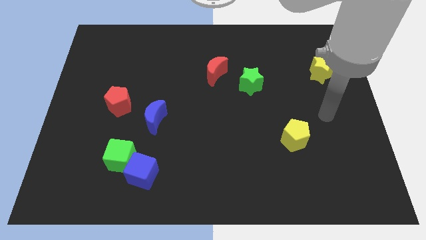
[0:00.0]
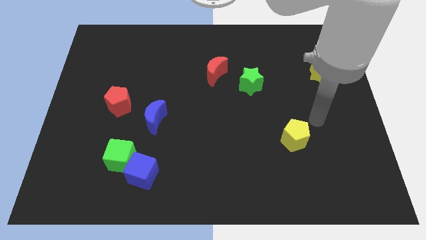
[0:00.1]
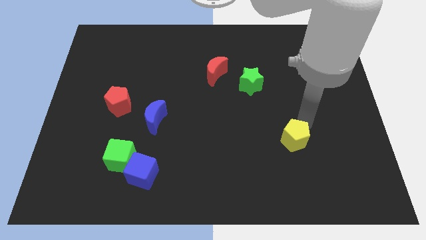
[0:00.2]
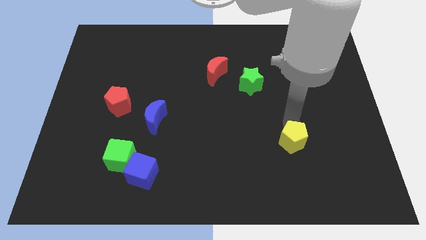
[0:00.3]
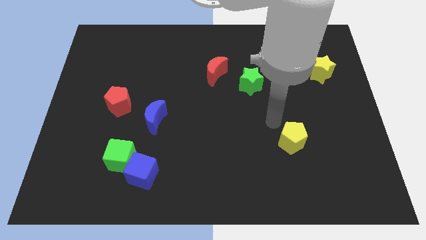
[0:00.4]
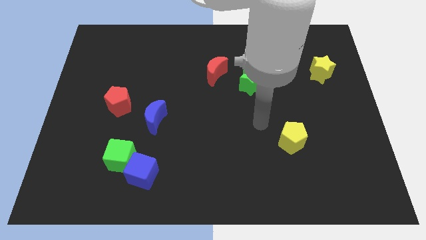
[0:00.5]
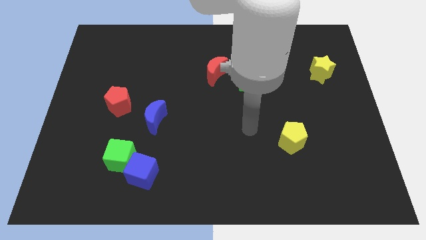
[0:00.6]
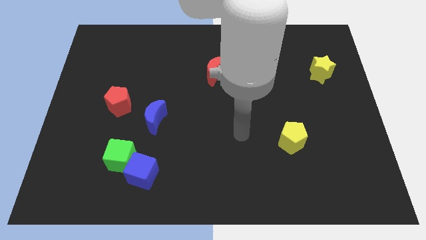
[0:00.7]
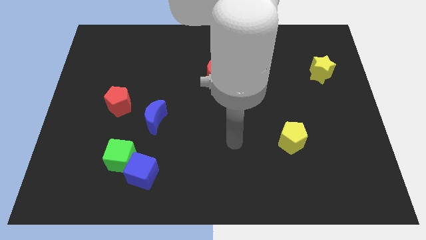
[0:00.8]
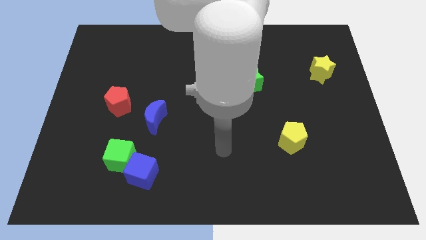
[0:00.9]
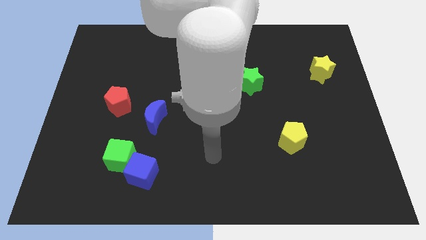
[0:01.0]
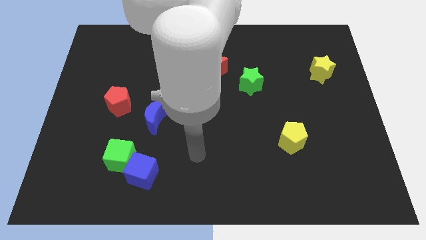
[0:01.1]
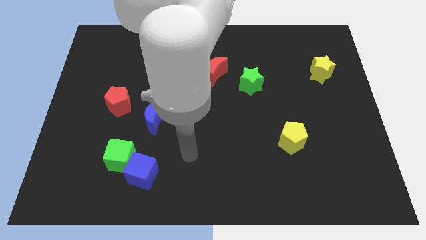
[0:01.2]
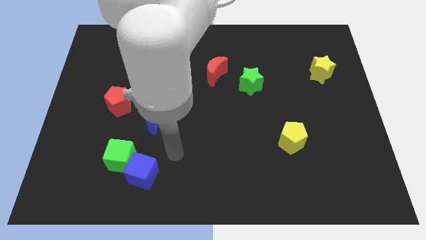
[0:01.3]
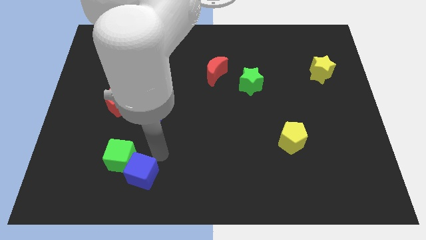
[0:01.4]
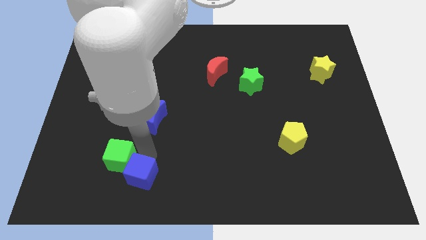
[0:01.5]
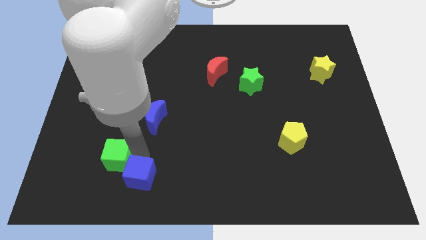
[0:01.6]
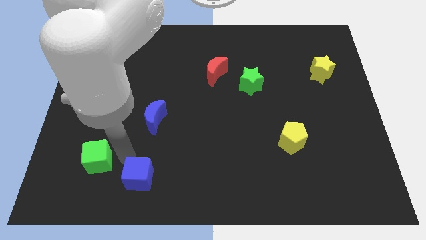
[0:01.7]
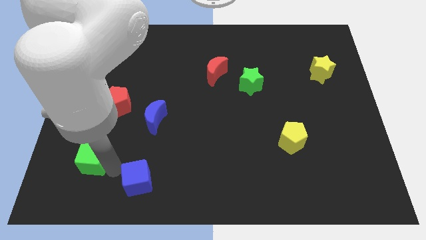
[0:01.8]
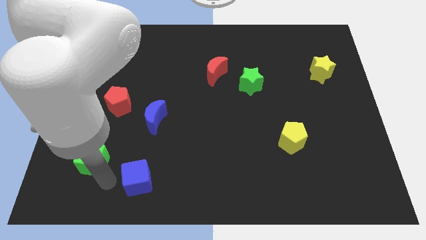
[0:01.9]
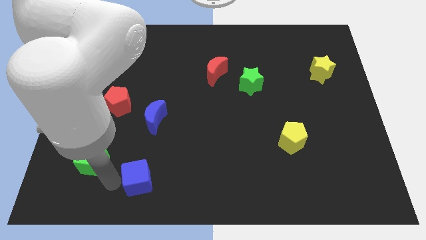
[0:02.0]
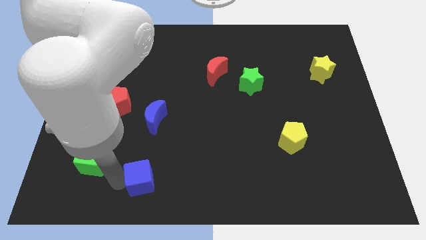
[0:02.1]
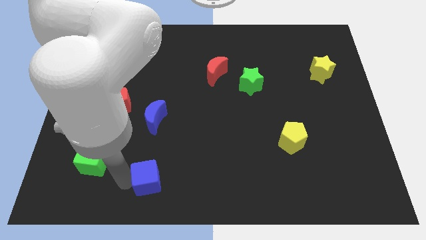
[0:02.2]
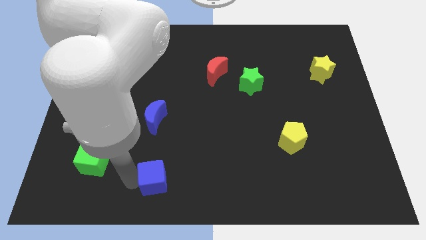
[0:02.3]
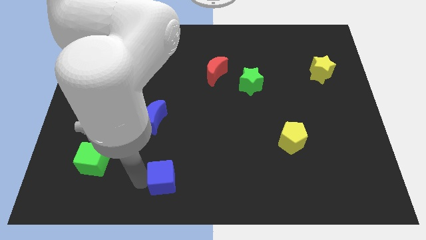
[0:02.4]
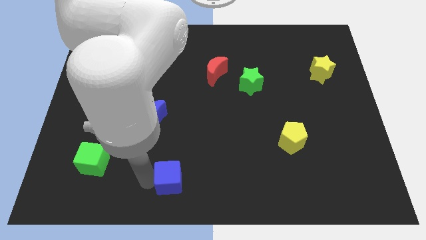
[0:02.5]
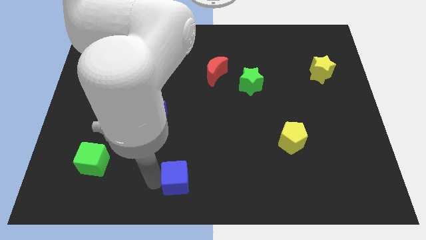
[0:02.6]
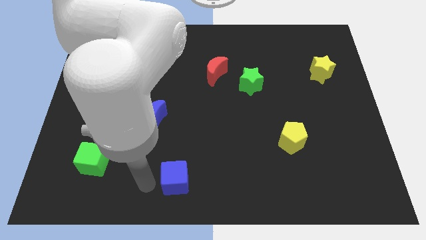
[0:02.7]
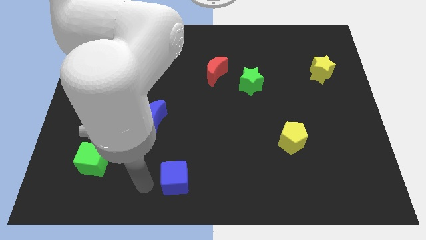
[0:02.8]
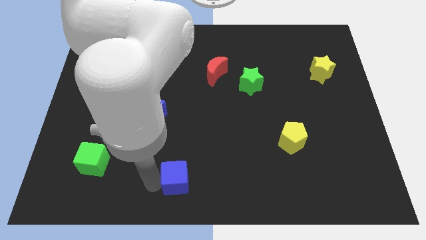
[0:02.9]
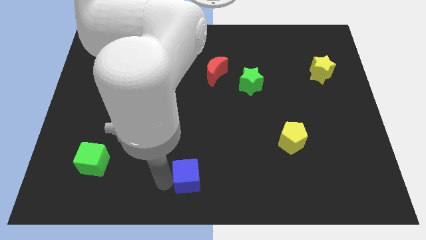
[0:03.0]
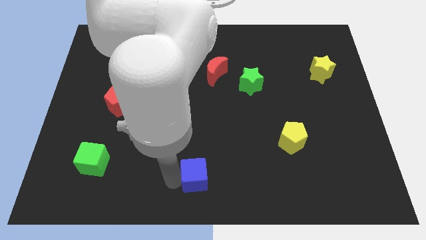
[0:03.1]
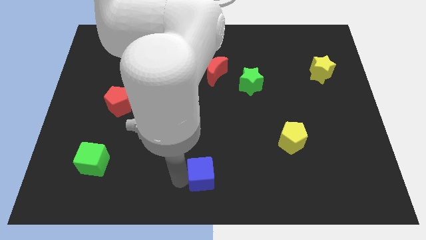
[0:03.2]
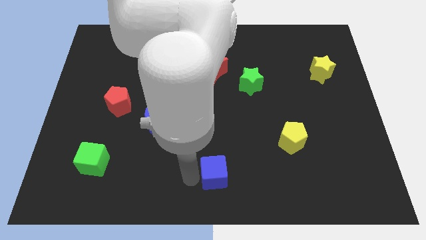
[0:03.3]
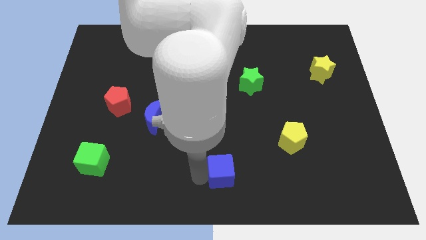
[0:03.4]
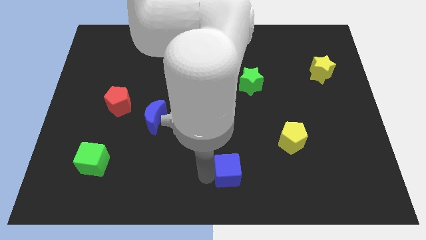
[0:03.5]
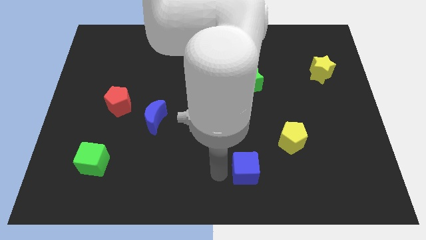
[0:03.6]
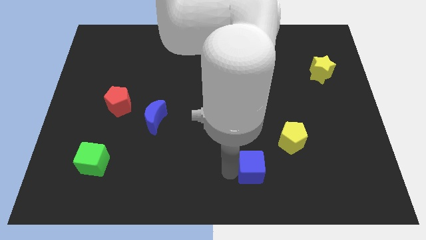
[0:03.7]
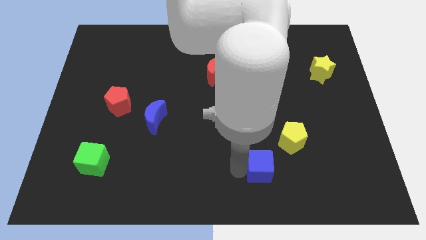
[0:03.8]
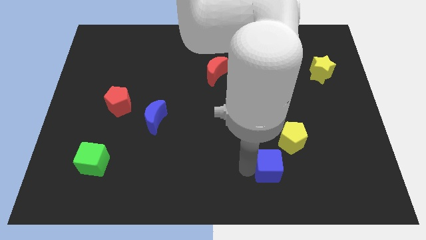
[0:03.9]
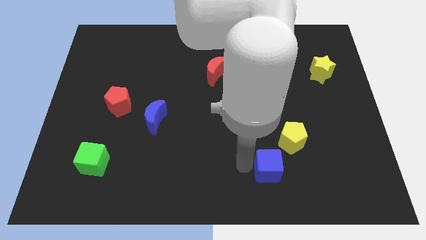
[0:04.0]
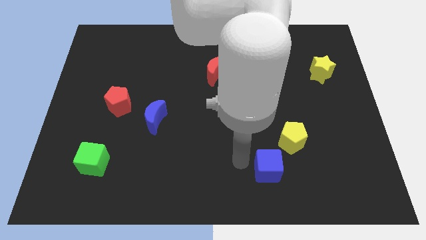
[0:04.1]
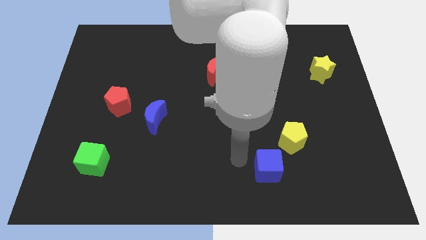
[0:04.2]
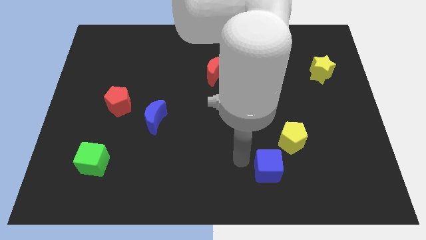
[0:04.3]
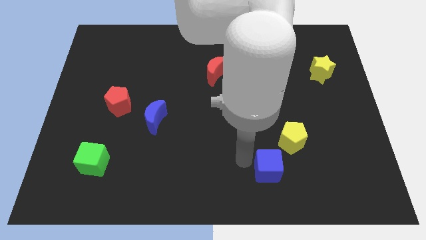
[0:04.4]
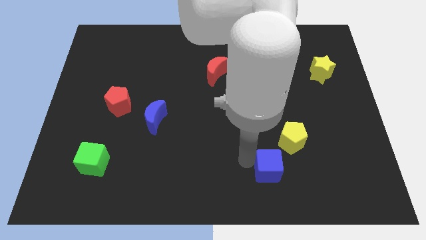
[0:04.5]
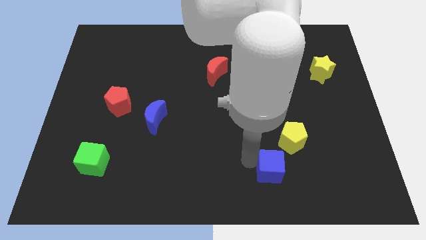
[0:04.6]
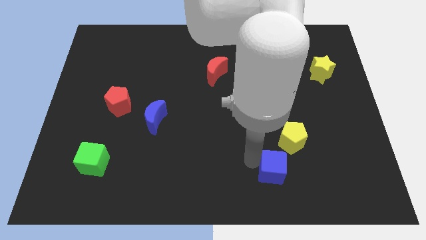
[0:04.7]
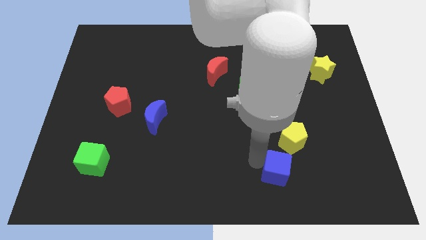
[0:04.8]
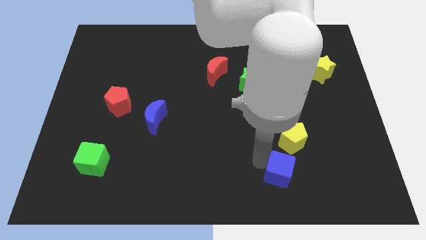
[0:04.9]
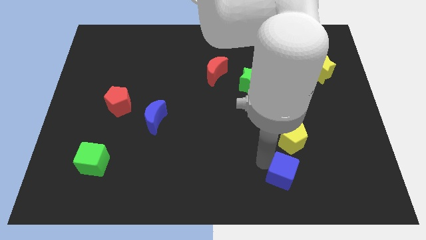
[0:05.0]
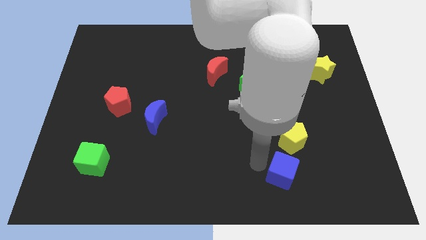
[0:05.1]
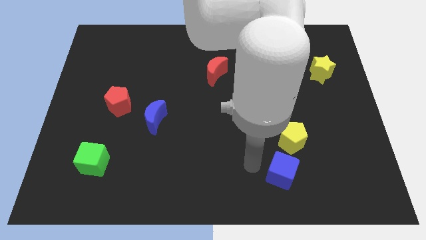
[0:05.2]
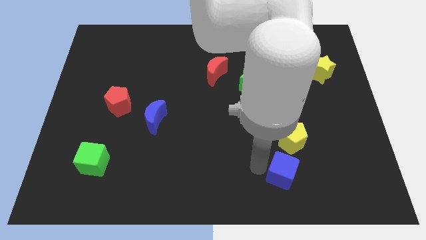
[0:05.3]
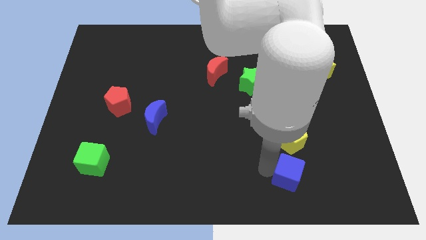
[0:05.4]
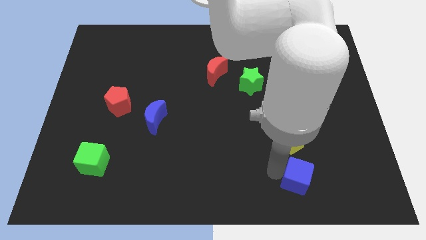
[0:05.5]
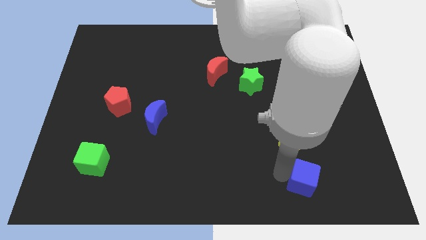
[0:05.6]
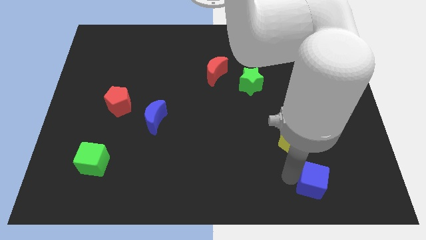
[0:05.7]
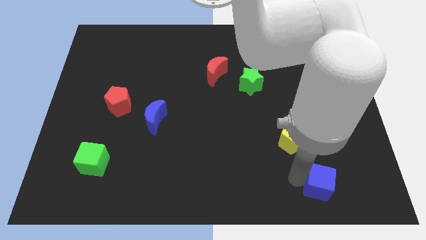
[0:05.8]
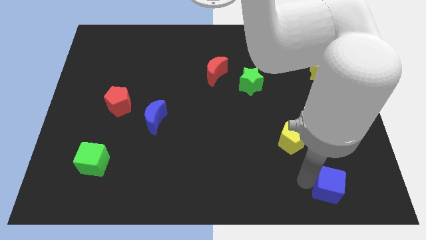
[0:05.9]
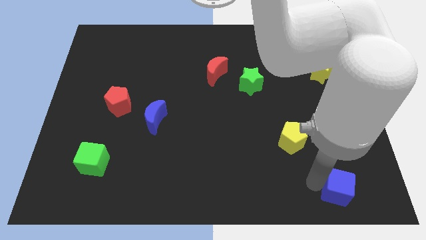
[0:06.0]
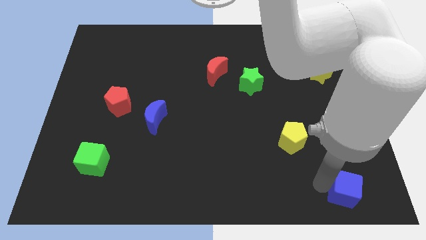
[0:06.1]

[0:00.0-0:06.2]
slide the blue cube to the bottom right of the board
